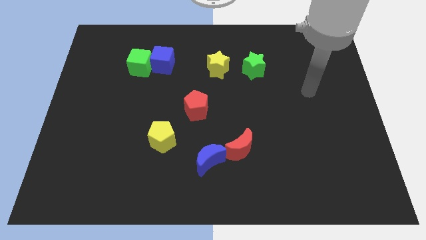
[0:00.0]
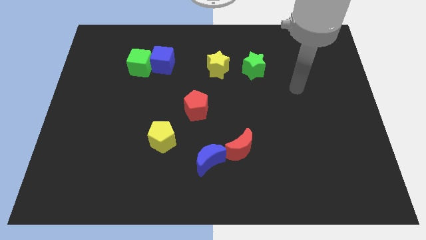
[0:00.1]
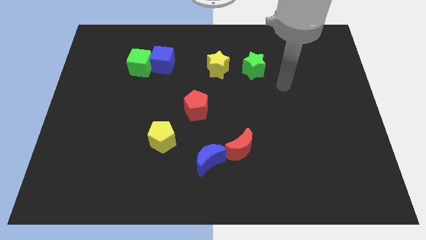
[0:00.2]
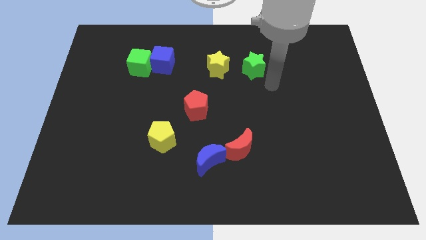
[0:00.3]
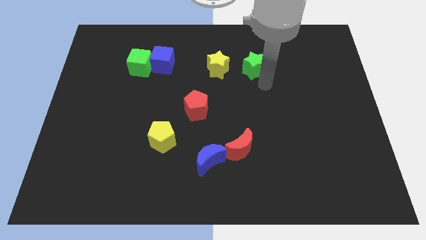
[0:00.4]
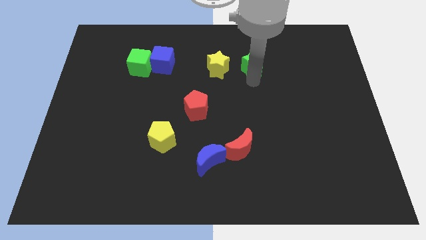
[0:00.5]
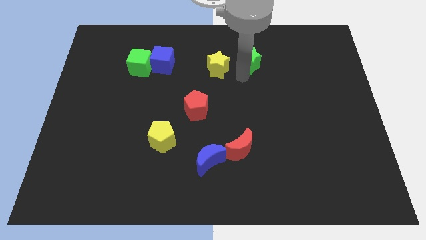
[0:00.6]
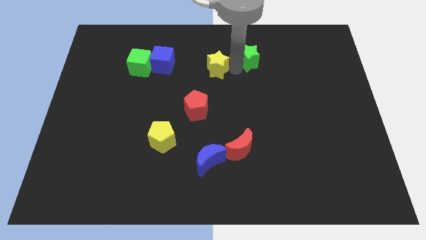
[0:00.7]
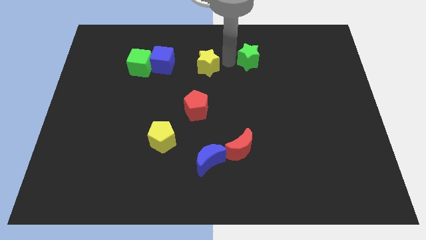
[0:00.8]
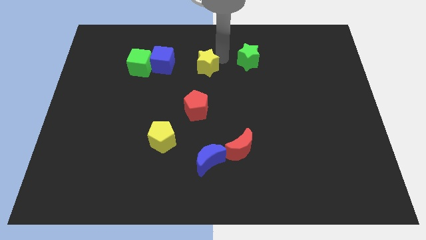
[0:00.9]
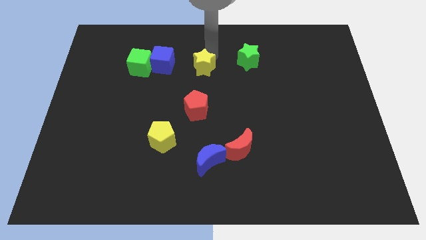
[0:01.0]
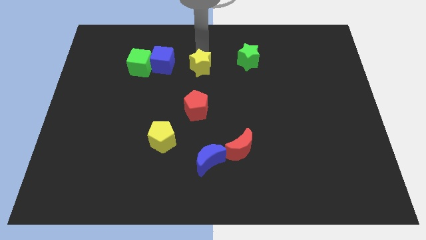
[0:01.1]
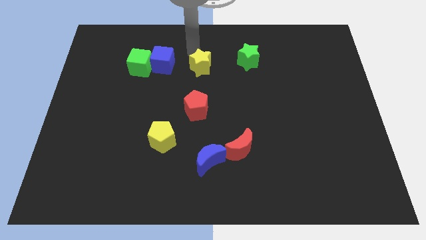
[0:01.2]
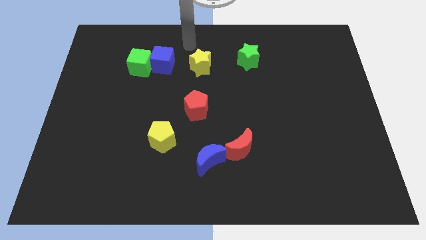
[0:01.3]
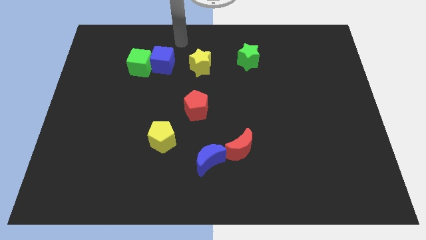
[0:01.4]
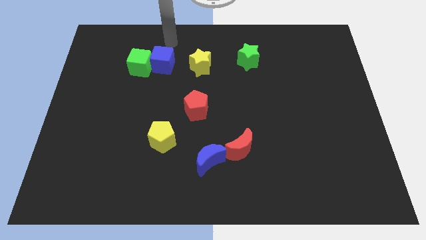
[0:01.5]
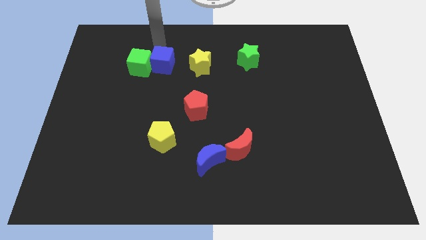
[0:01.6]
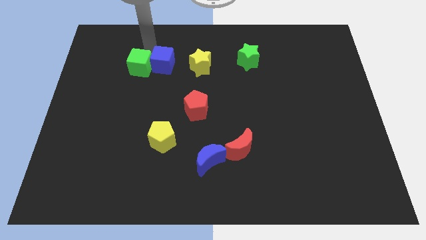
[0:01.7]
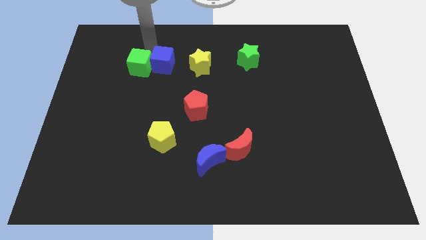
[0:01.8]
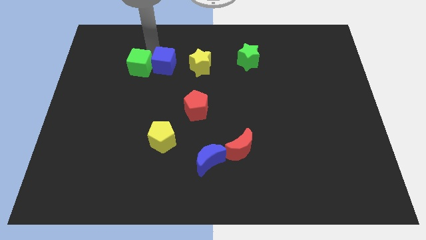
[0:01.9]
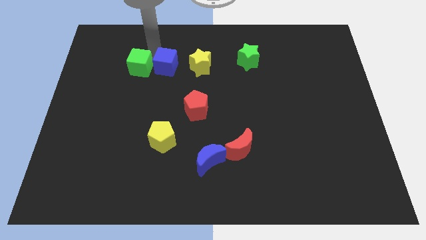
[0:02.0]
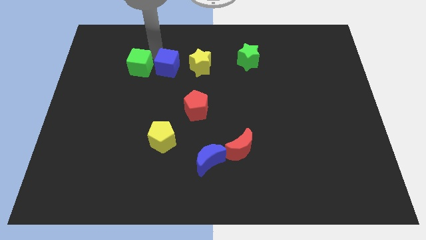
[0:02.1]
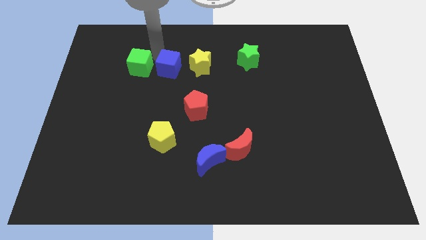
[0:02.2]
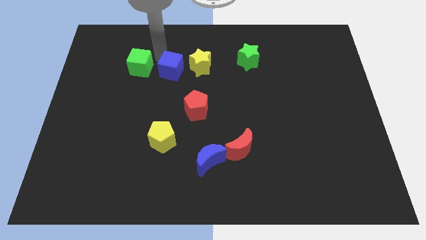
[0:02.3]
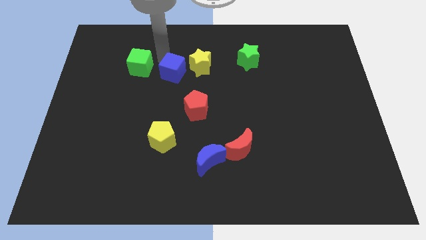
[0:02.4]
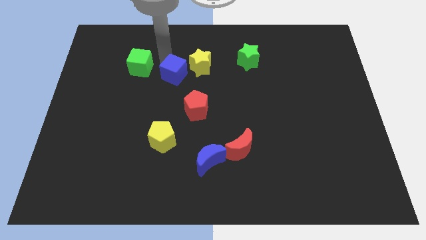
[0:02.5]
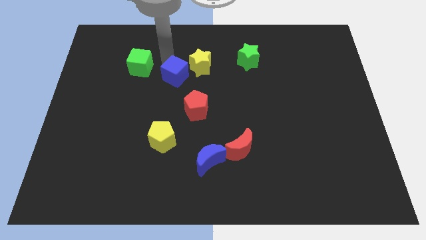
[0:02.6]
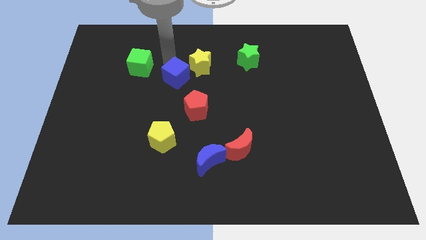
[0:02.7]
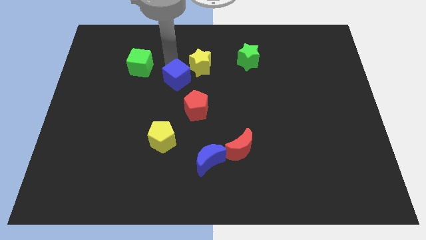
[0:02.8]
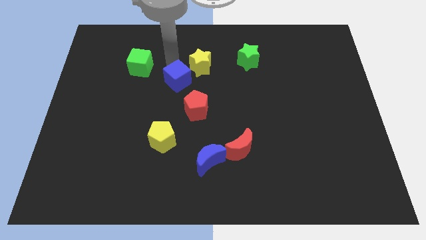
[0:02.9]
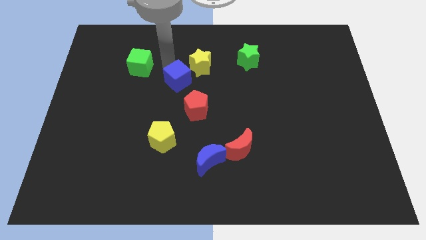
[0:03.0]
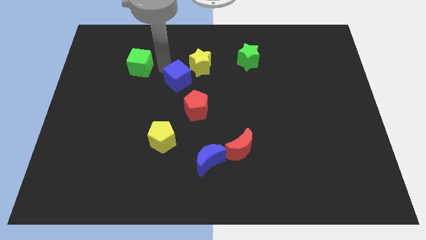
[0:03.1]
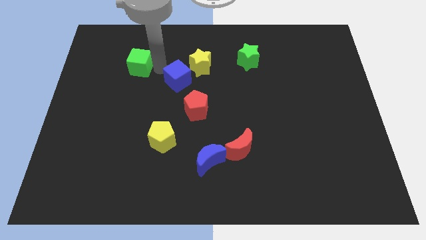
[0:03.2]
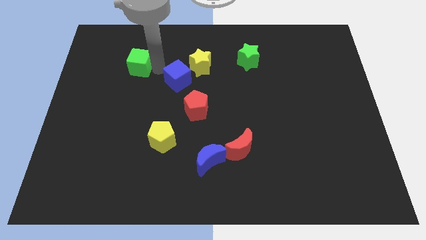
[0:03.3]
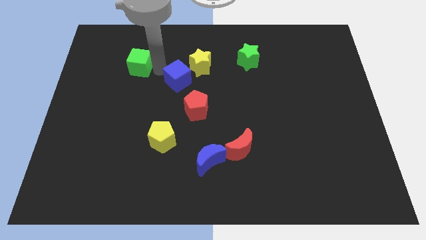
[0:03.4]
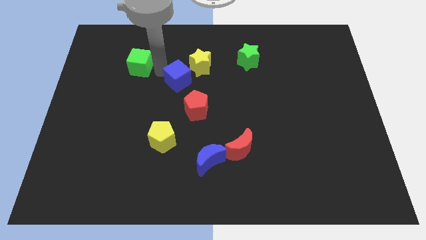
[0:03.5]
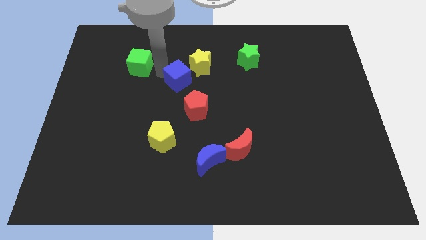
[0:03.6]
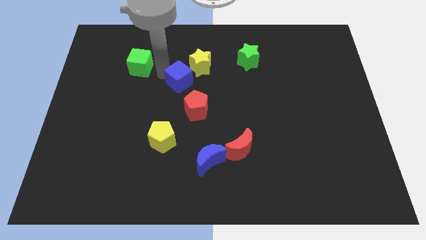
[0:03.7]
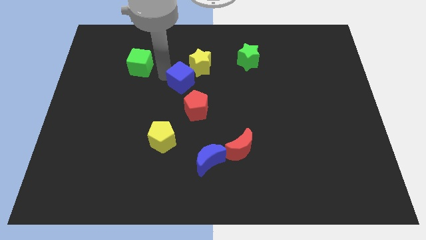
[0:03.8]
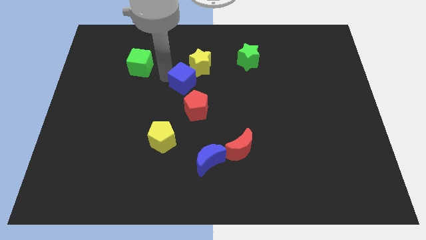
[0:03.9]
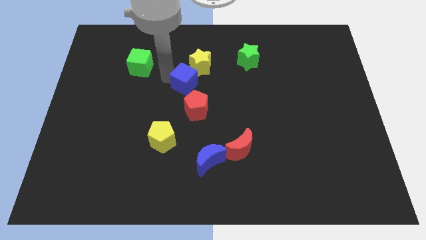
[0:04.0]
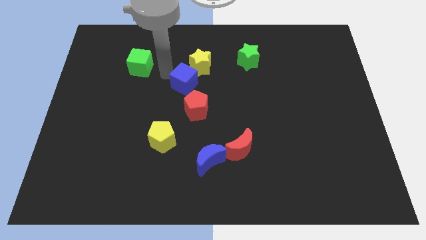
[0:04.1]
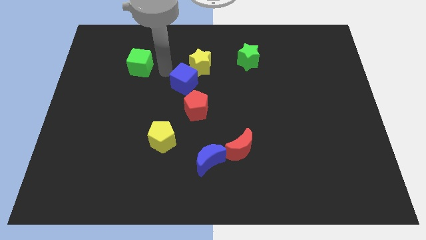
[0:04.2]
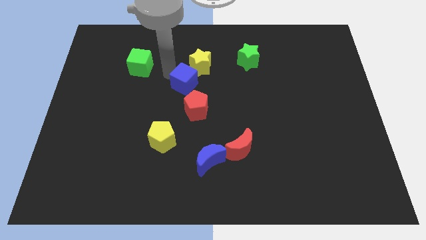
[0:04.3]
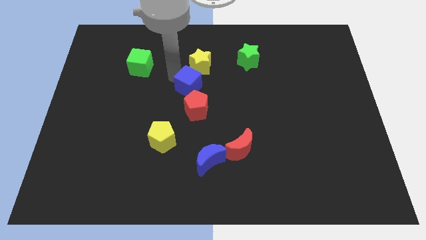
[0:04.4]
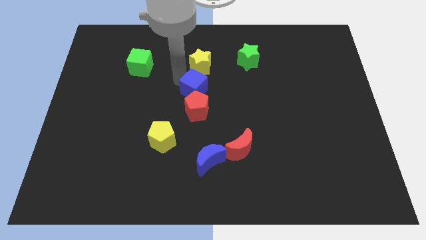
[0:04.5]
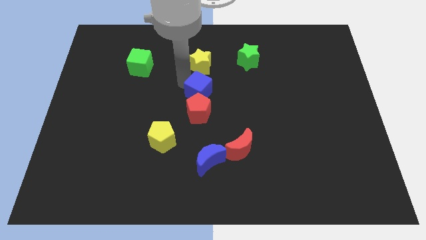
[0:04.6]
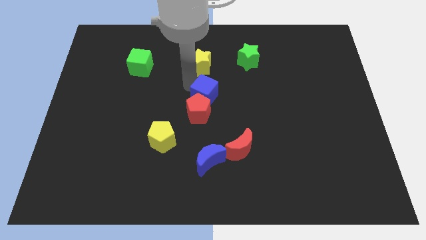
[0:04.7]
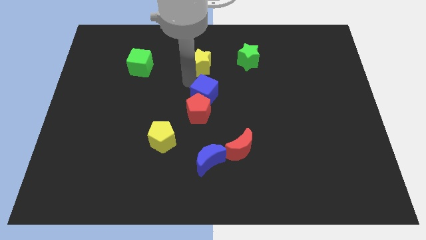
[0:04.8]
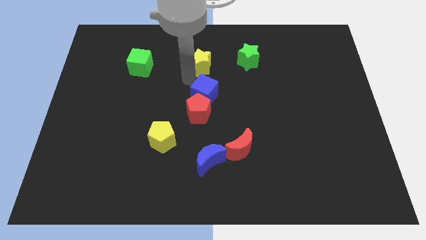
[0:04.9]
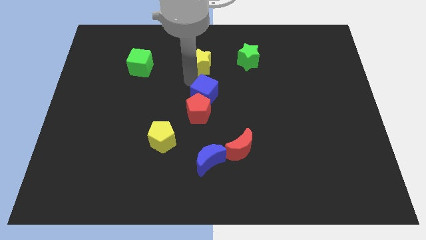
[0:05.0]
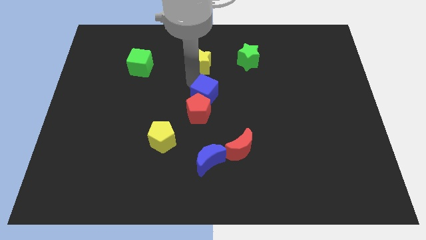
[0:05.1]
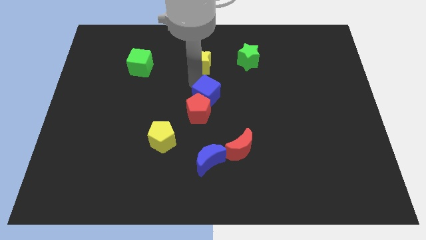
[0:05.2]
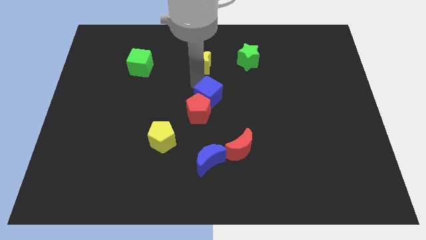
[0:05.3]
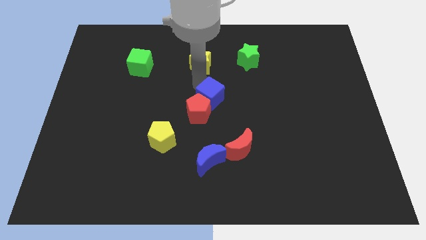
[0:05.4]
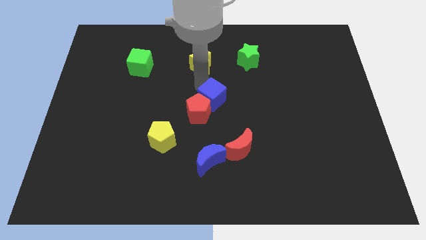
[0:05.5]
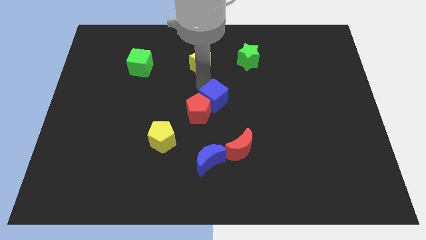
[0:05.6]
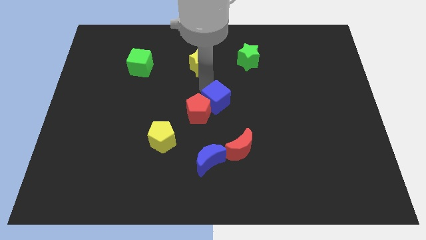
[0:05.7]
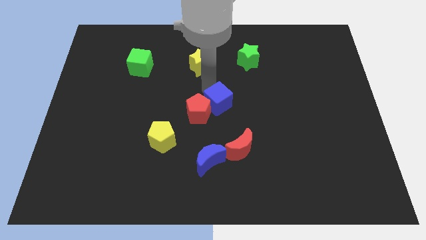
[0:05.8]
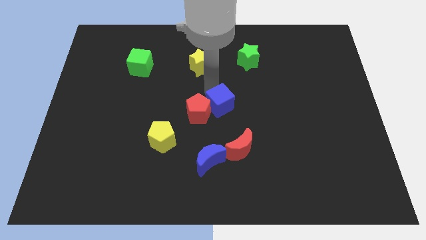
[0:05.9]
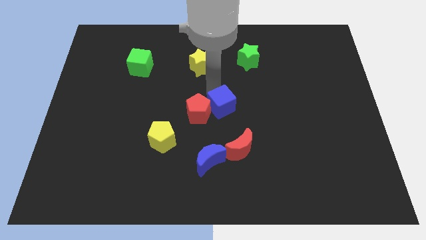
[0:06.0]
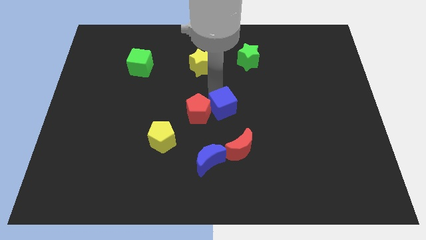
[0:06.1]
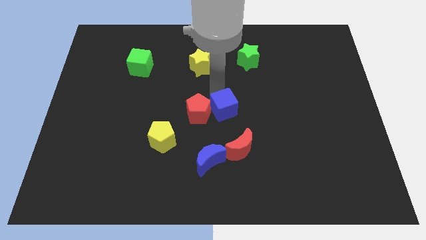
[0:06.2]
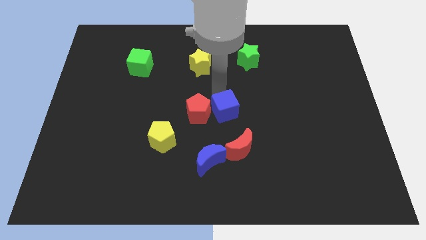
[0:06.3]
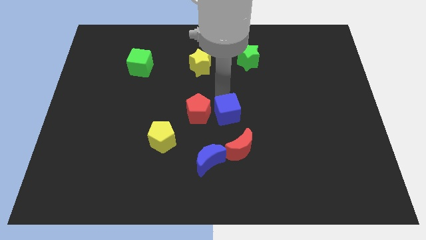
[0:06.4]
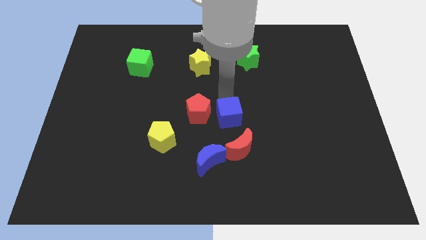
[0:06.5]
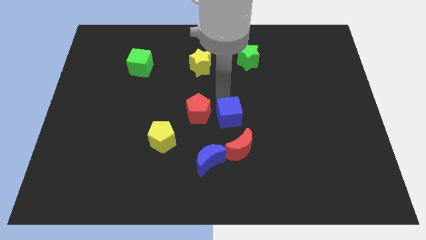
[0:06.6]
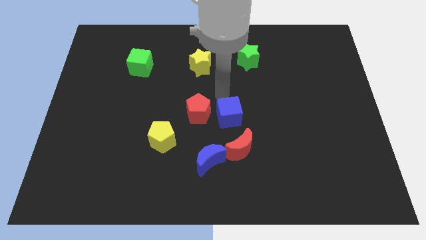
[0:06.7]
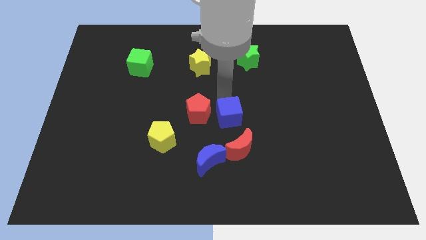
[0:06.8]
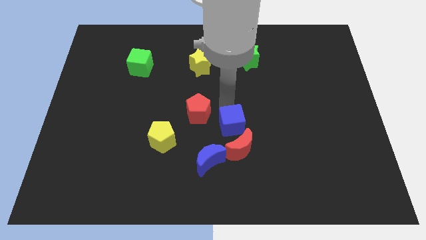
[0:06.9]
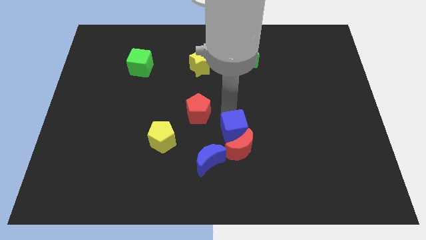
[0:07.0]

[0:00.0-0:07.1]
slide the blue cube towards the red moon
